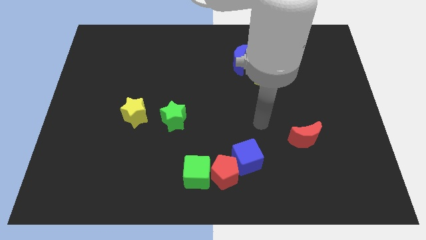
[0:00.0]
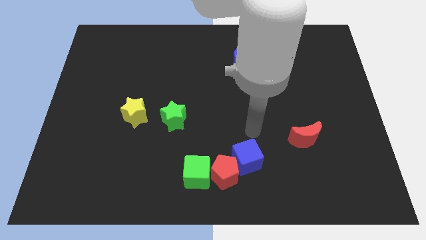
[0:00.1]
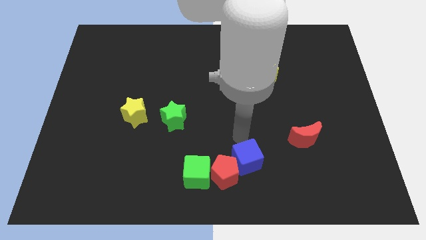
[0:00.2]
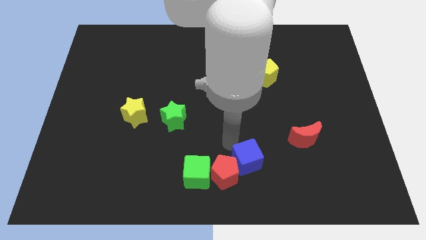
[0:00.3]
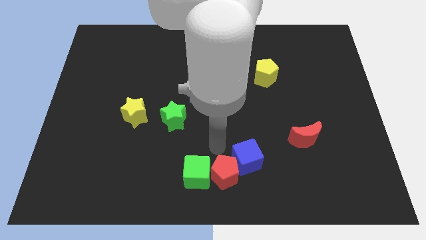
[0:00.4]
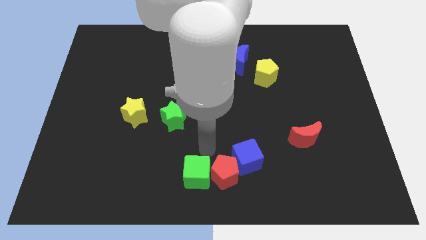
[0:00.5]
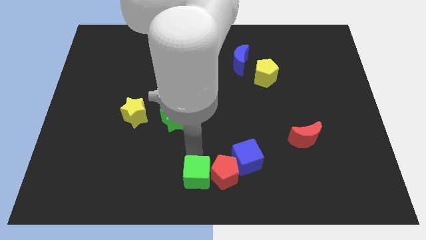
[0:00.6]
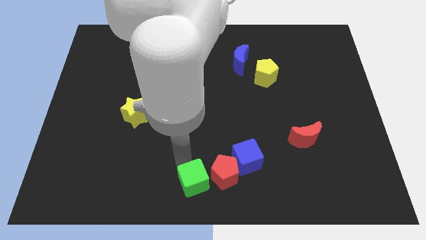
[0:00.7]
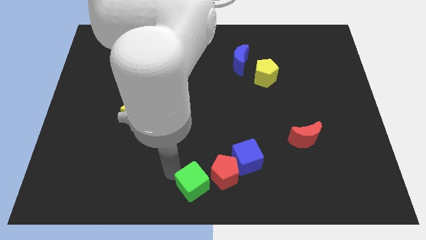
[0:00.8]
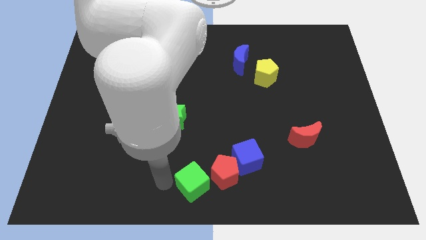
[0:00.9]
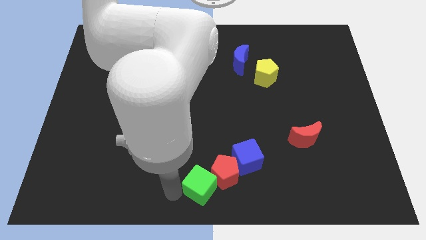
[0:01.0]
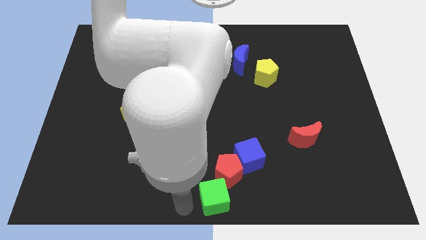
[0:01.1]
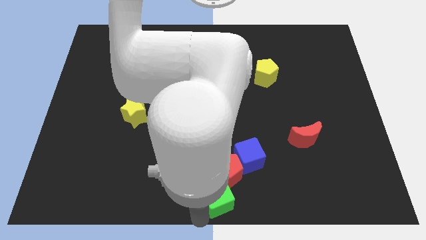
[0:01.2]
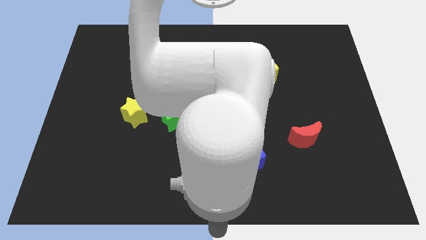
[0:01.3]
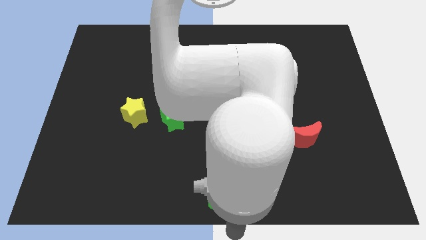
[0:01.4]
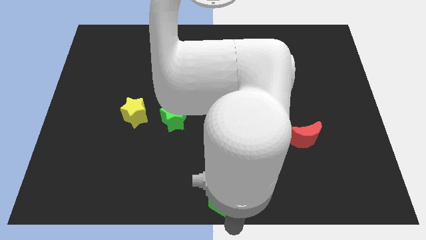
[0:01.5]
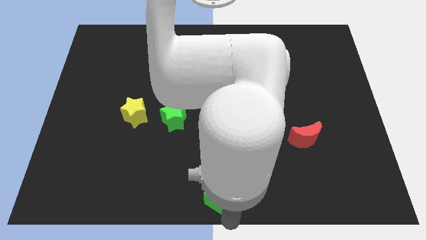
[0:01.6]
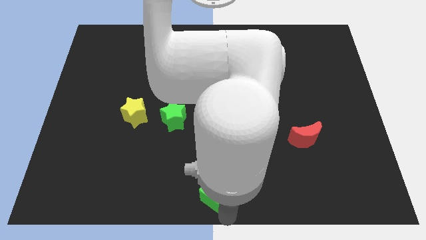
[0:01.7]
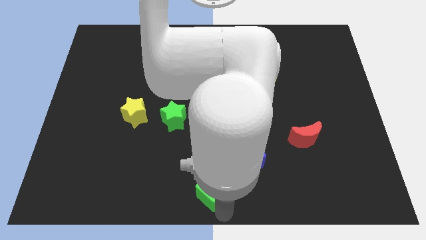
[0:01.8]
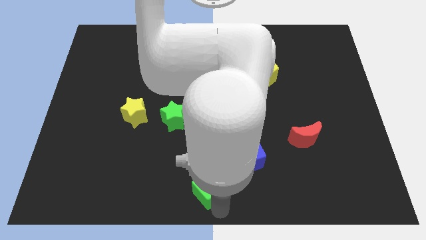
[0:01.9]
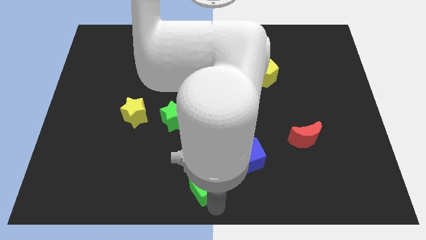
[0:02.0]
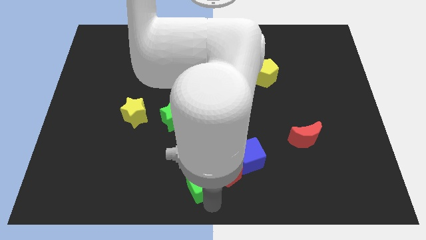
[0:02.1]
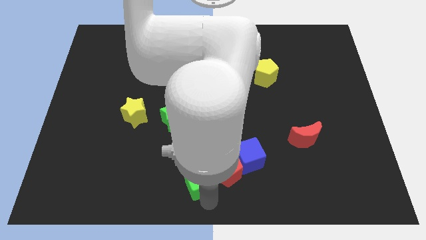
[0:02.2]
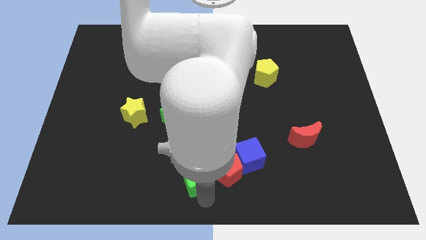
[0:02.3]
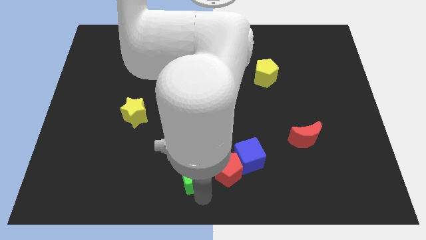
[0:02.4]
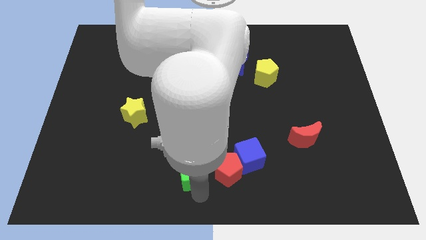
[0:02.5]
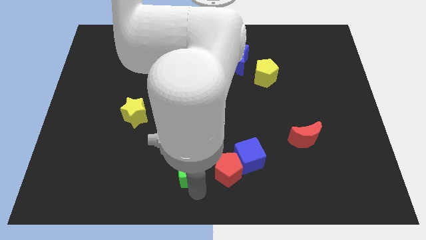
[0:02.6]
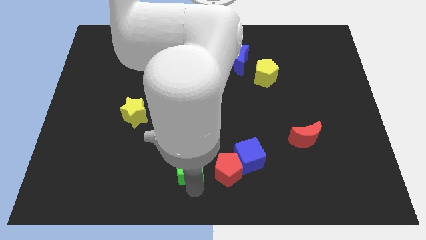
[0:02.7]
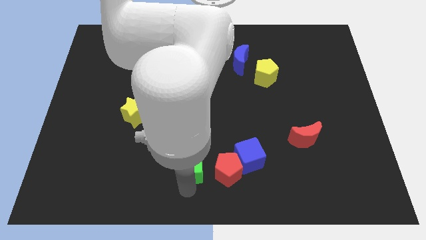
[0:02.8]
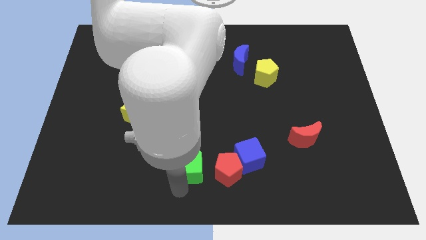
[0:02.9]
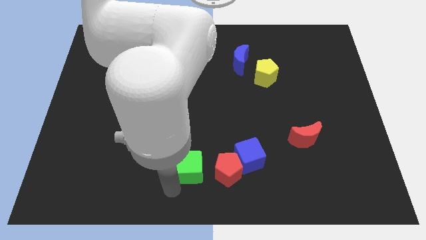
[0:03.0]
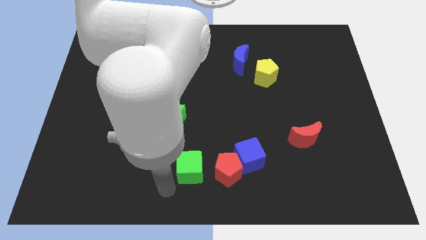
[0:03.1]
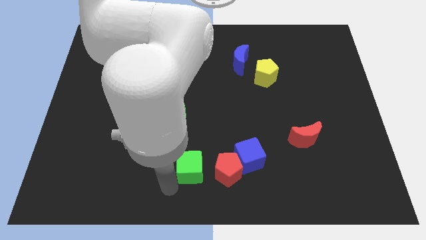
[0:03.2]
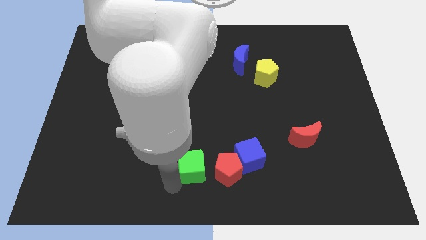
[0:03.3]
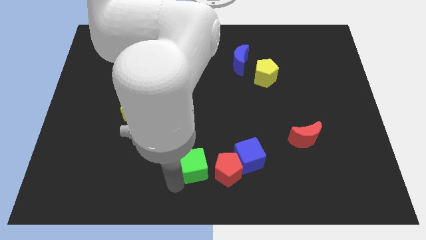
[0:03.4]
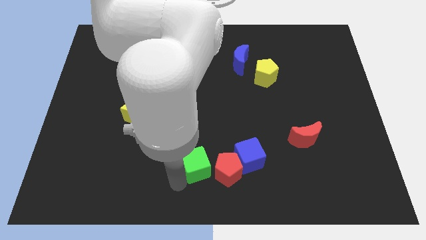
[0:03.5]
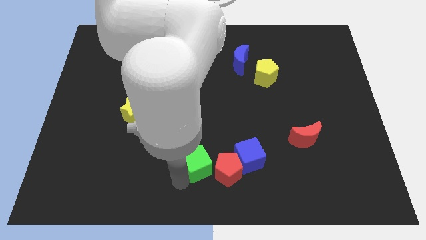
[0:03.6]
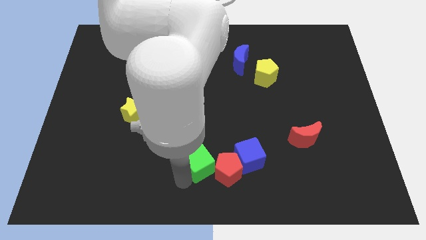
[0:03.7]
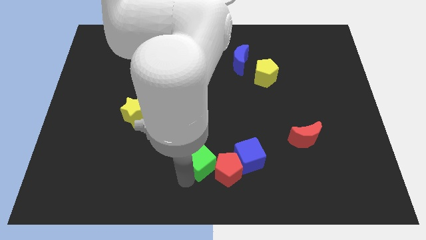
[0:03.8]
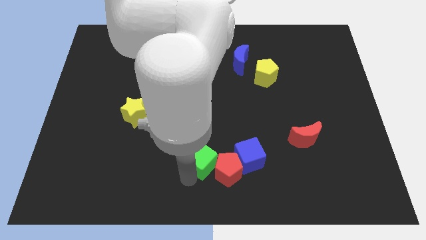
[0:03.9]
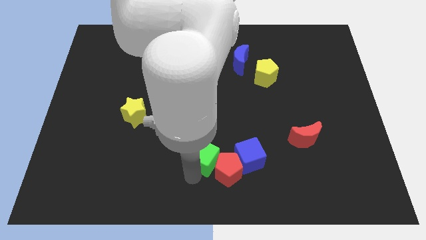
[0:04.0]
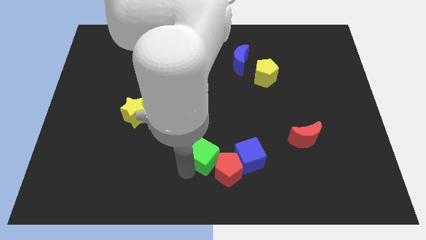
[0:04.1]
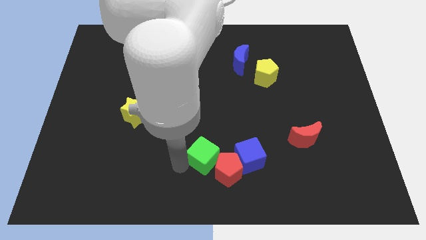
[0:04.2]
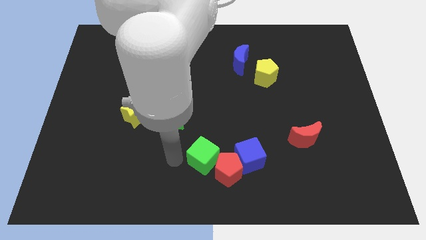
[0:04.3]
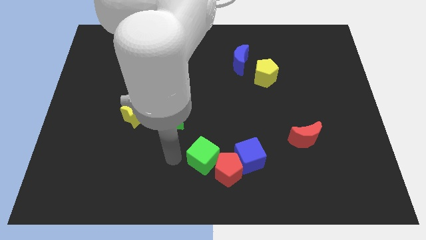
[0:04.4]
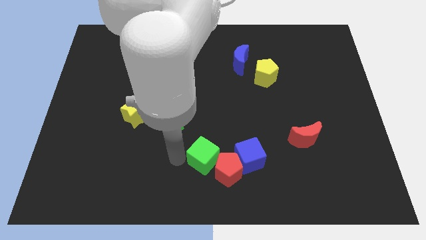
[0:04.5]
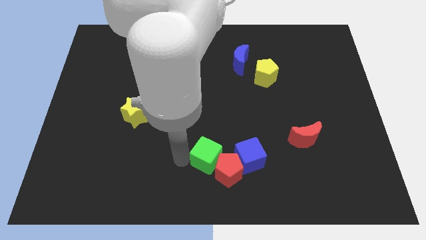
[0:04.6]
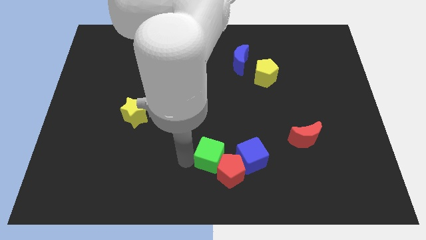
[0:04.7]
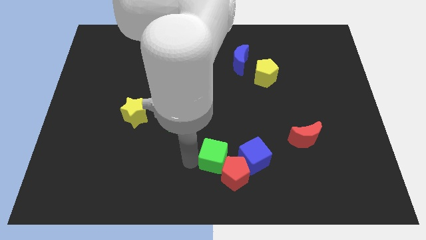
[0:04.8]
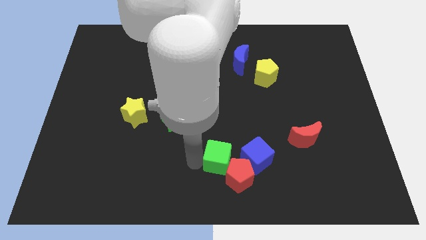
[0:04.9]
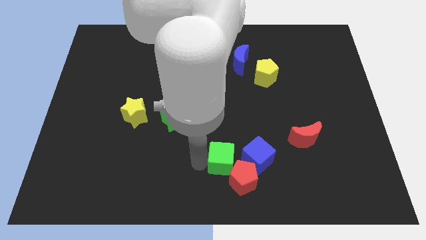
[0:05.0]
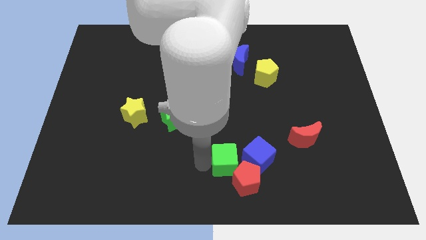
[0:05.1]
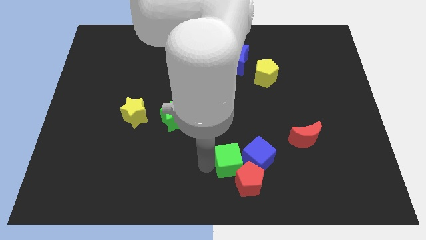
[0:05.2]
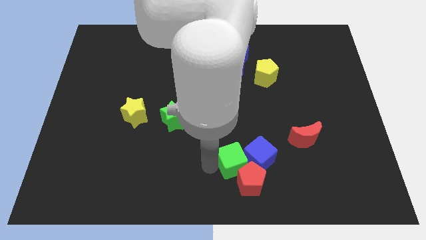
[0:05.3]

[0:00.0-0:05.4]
move the green cube next to the blue cube

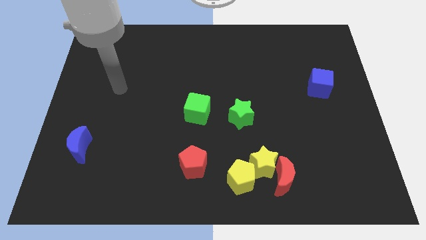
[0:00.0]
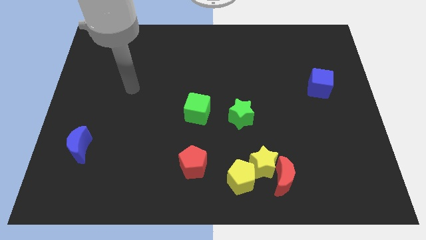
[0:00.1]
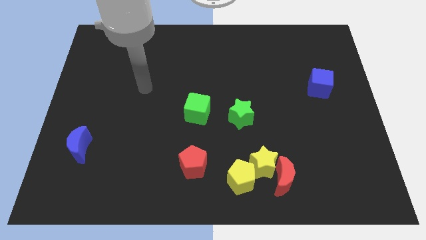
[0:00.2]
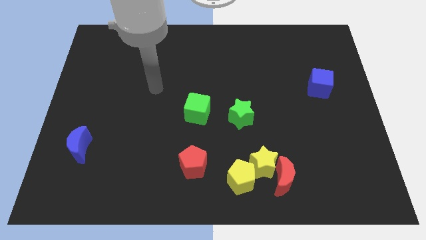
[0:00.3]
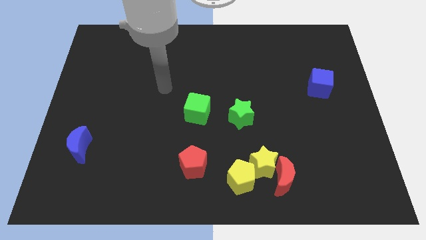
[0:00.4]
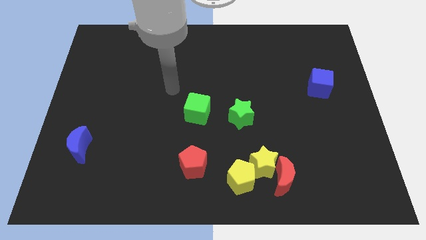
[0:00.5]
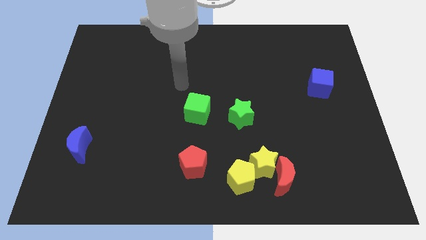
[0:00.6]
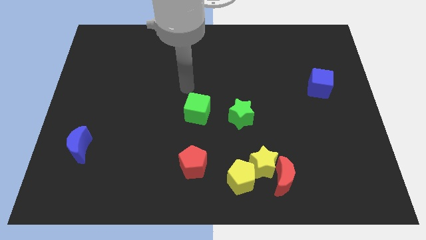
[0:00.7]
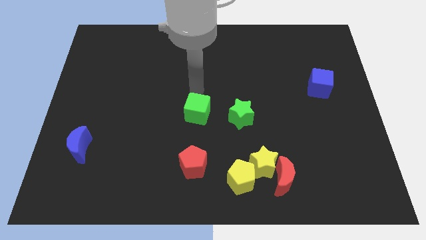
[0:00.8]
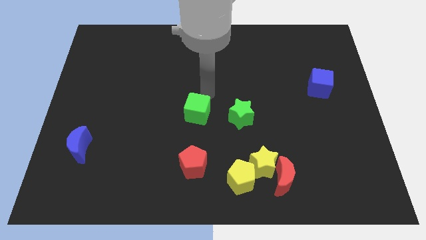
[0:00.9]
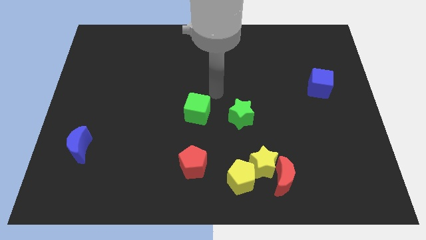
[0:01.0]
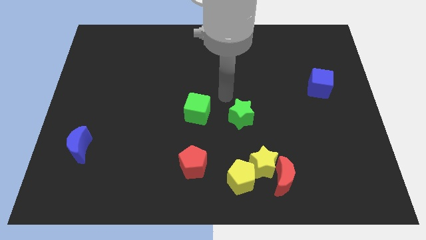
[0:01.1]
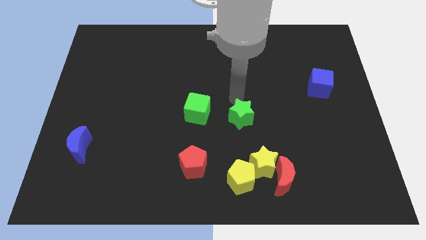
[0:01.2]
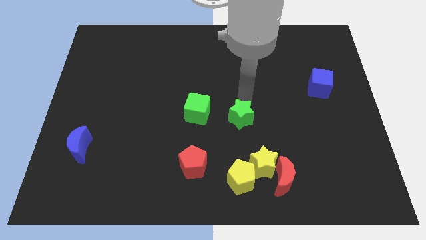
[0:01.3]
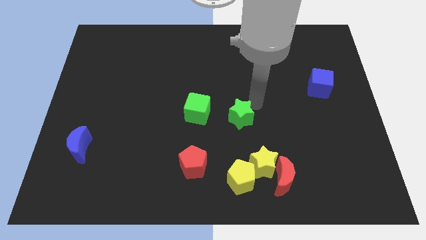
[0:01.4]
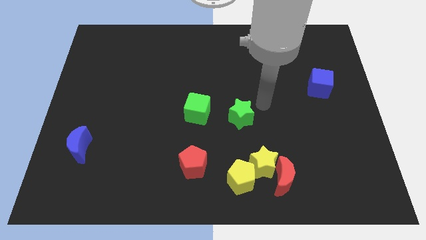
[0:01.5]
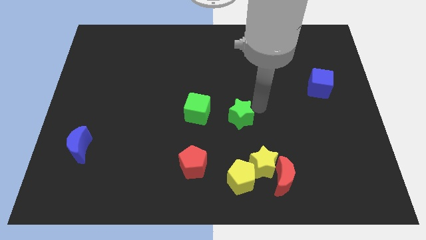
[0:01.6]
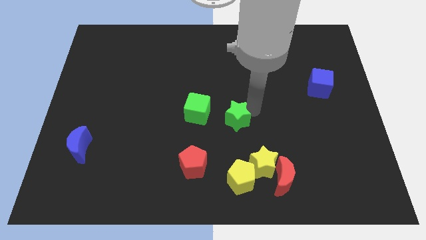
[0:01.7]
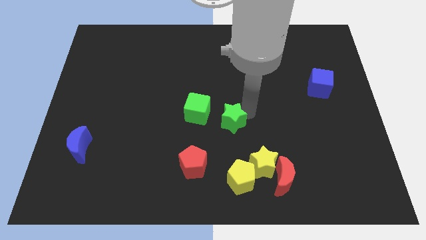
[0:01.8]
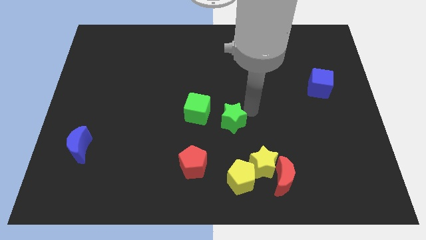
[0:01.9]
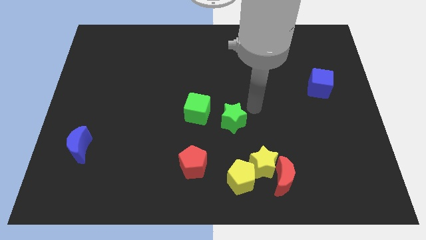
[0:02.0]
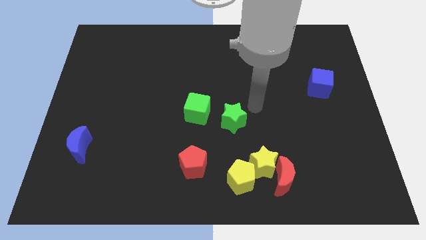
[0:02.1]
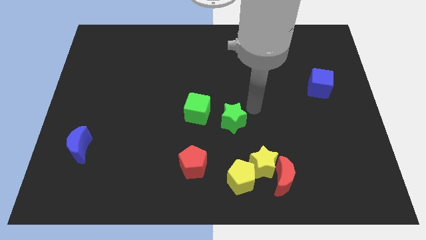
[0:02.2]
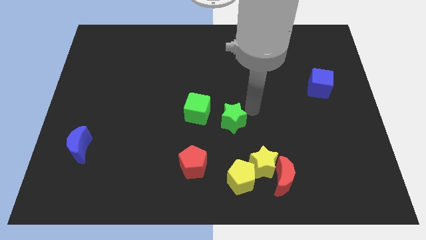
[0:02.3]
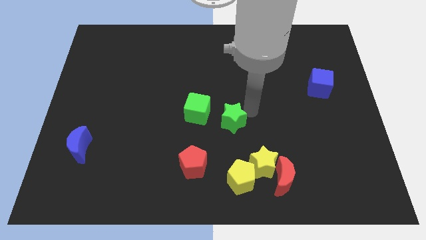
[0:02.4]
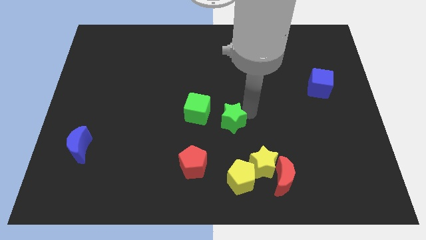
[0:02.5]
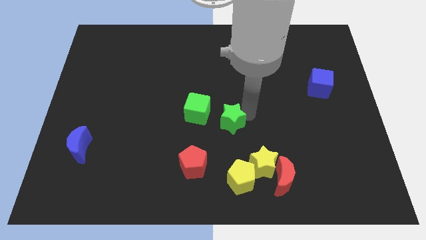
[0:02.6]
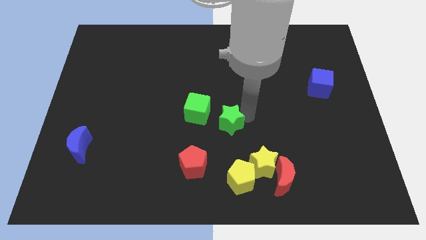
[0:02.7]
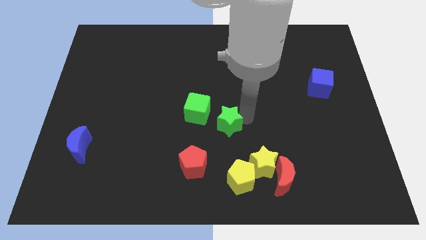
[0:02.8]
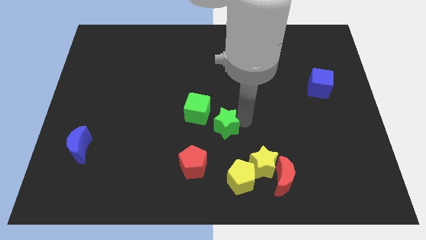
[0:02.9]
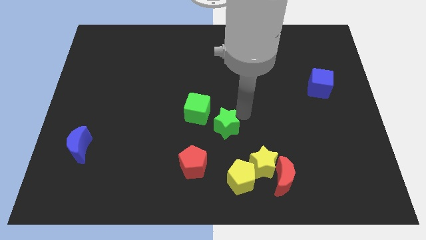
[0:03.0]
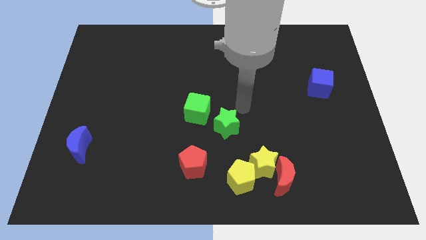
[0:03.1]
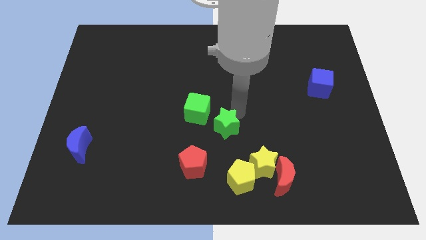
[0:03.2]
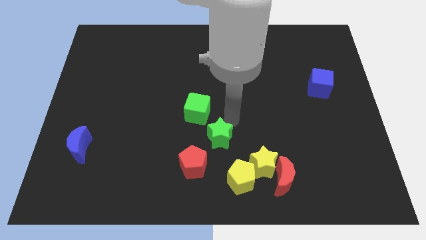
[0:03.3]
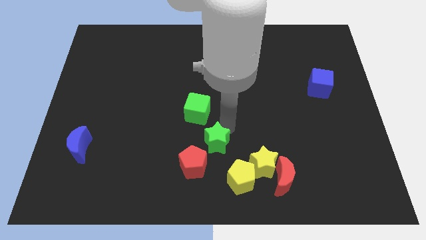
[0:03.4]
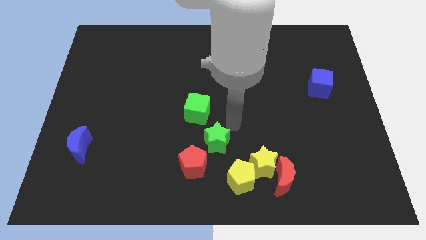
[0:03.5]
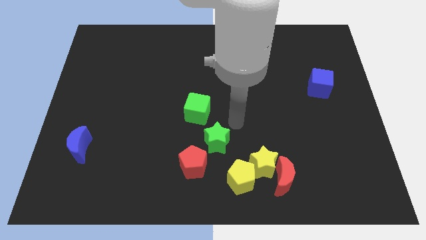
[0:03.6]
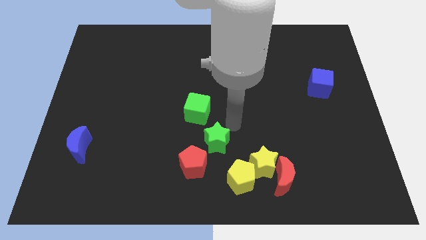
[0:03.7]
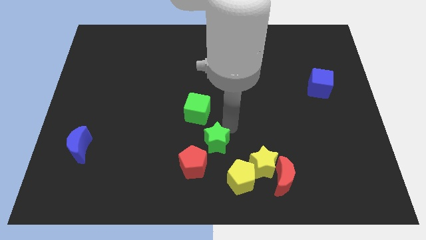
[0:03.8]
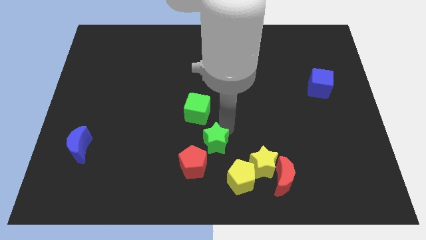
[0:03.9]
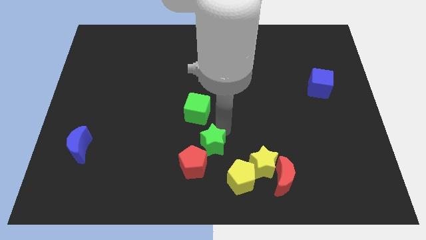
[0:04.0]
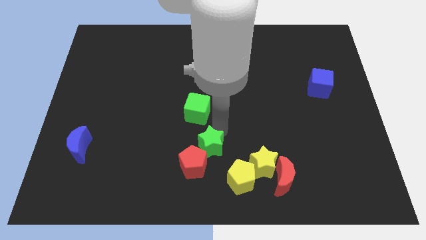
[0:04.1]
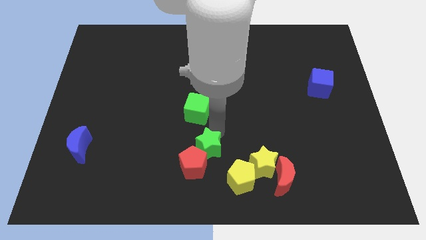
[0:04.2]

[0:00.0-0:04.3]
slide the green star close to the red pentagon
